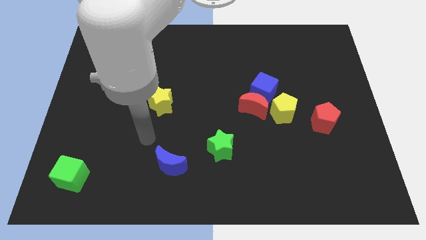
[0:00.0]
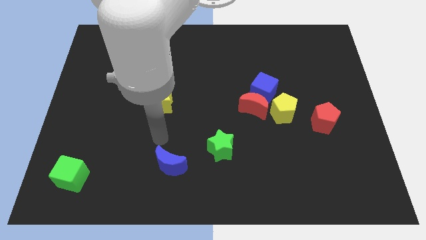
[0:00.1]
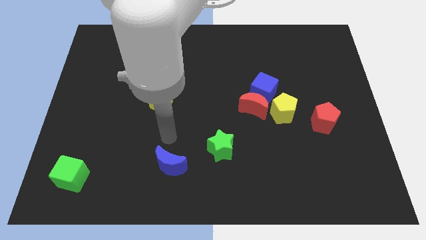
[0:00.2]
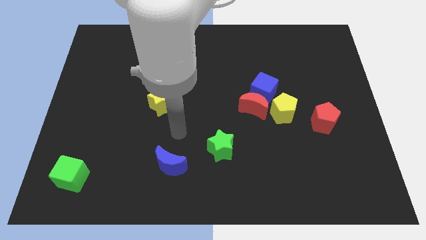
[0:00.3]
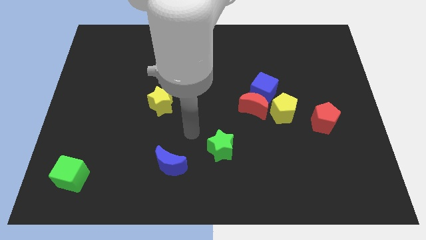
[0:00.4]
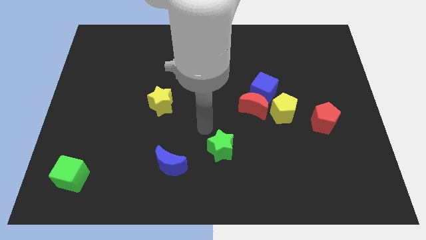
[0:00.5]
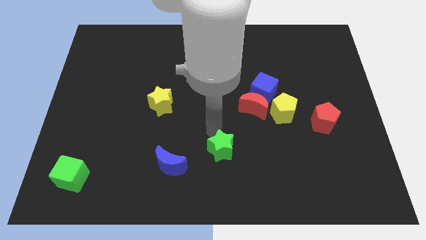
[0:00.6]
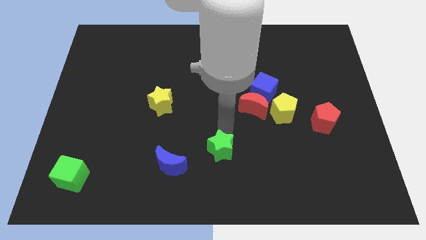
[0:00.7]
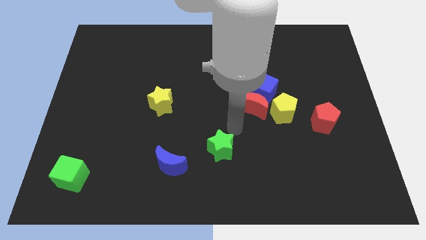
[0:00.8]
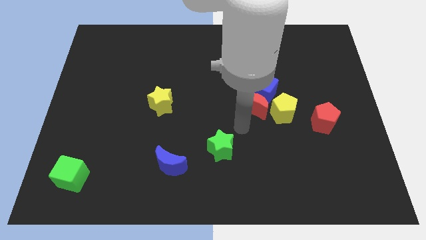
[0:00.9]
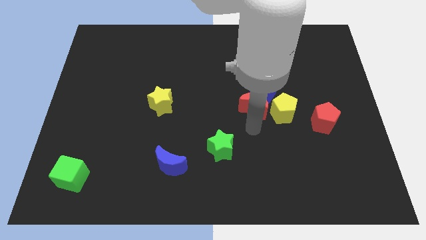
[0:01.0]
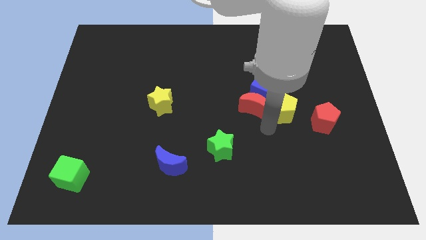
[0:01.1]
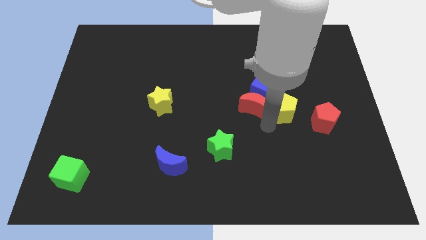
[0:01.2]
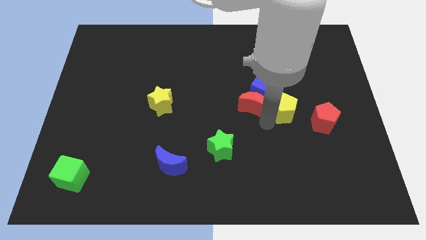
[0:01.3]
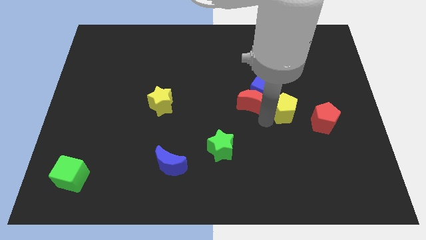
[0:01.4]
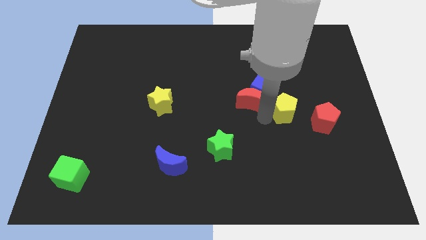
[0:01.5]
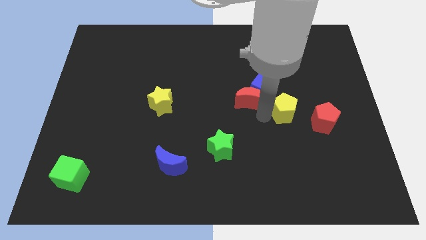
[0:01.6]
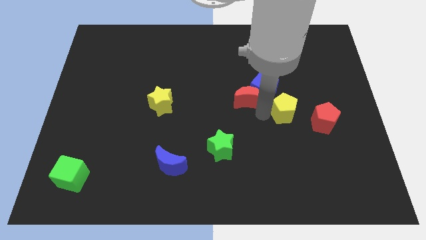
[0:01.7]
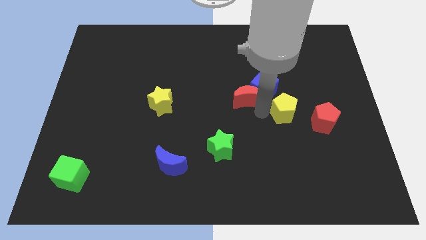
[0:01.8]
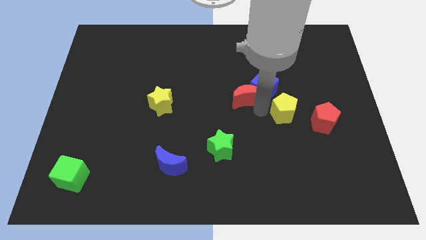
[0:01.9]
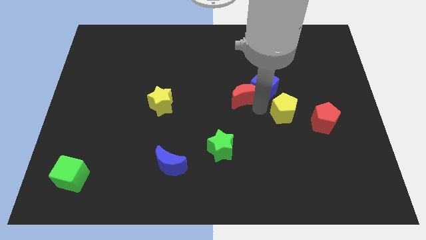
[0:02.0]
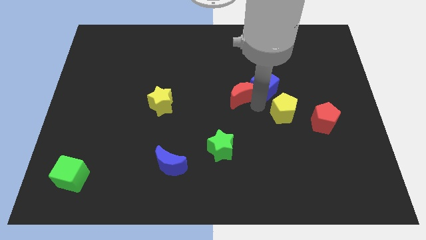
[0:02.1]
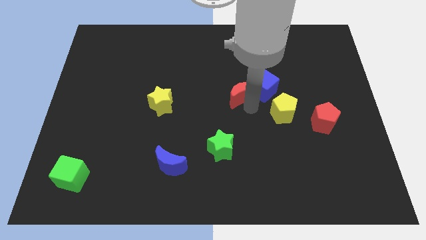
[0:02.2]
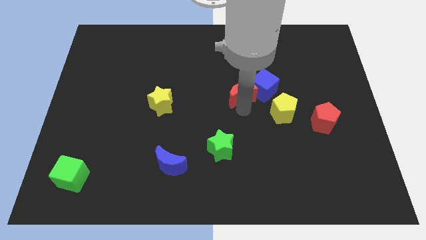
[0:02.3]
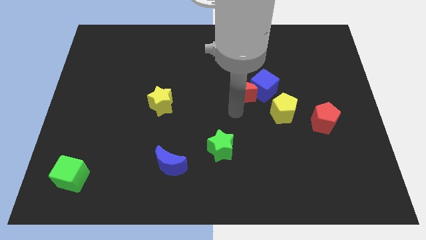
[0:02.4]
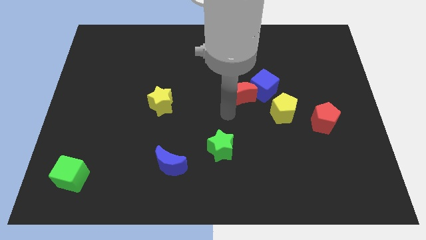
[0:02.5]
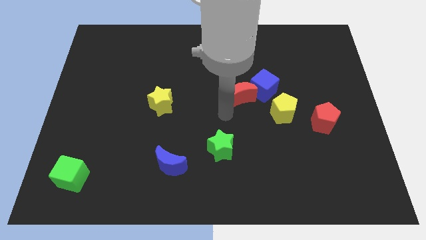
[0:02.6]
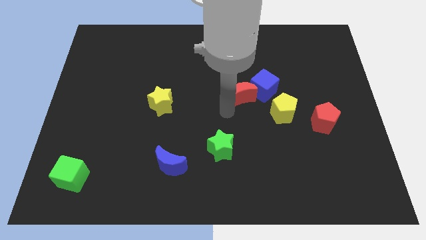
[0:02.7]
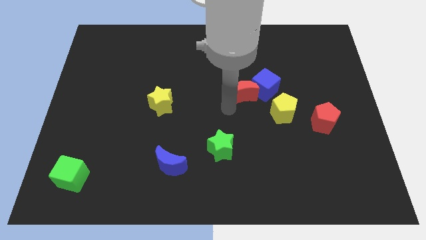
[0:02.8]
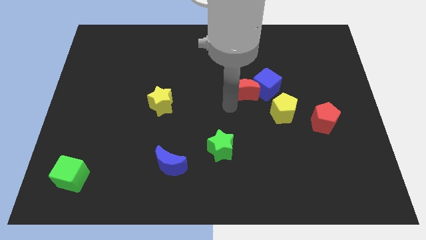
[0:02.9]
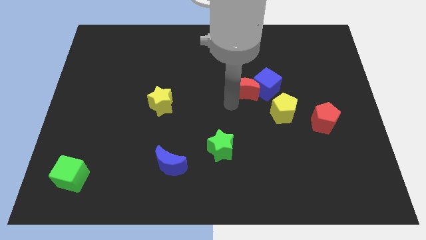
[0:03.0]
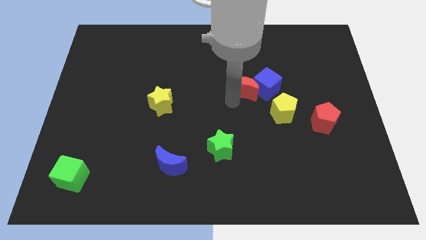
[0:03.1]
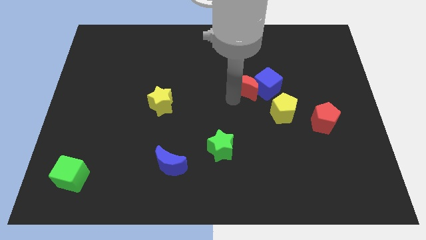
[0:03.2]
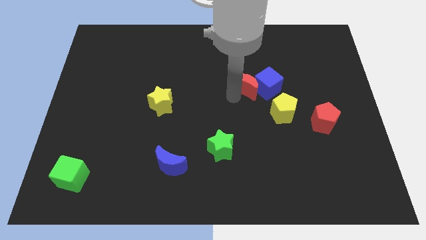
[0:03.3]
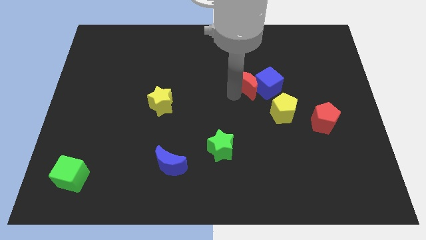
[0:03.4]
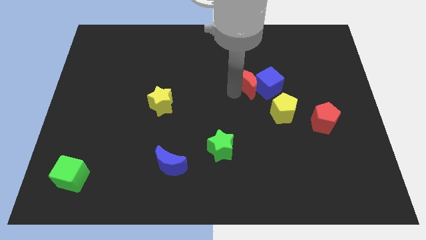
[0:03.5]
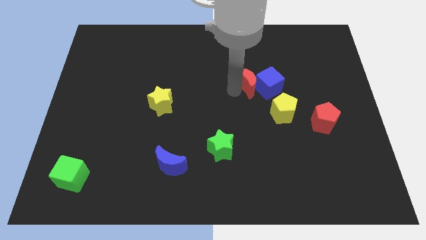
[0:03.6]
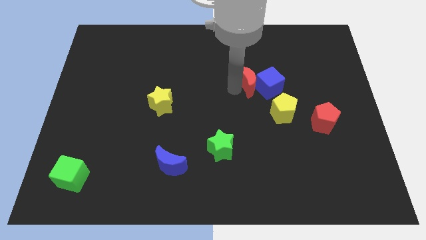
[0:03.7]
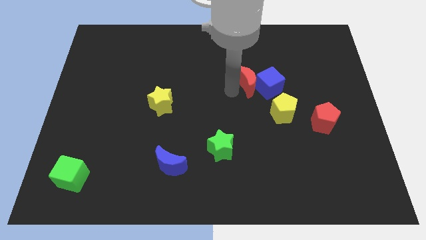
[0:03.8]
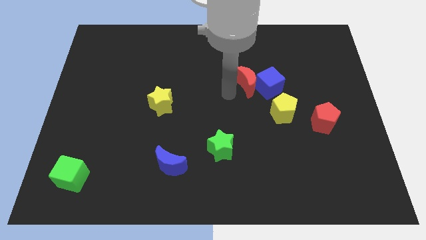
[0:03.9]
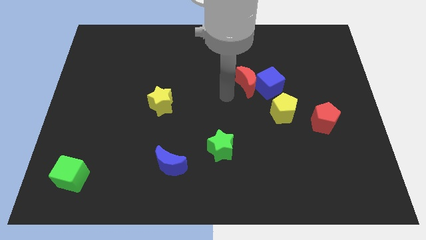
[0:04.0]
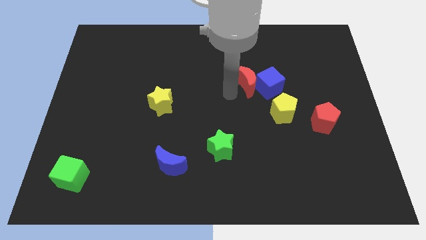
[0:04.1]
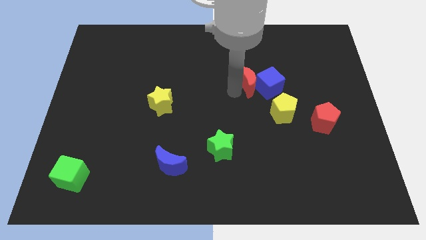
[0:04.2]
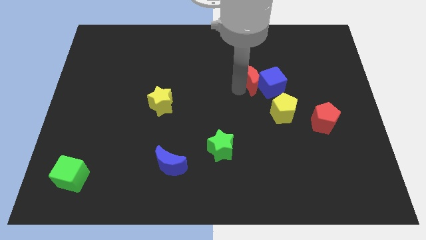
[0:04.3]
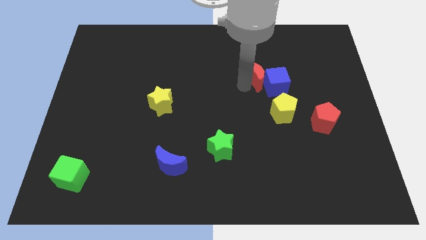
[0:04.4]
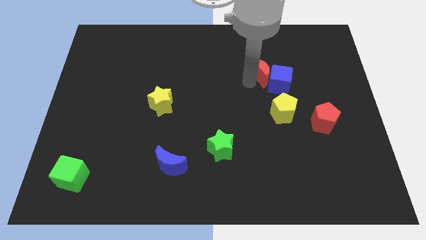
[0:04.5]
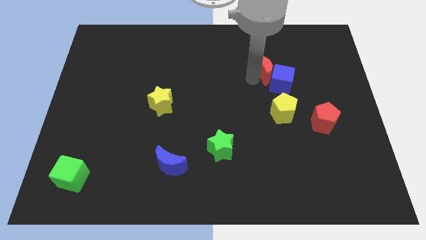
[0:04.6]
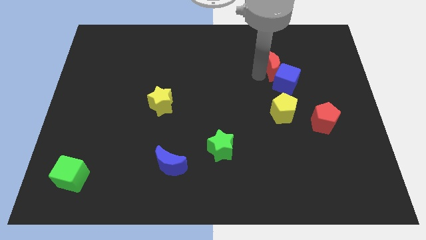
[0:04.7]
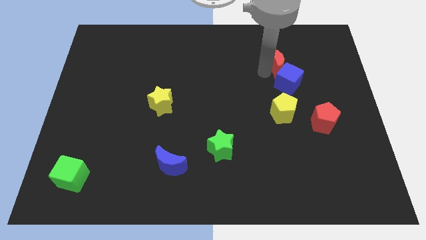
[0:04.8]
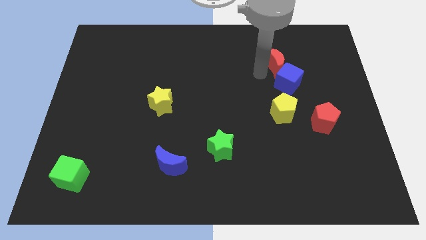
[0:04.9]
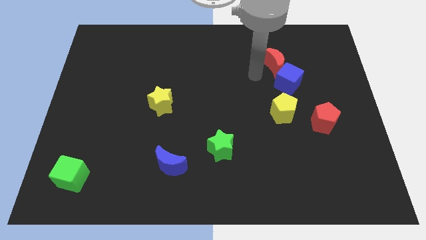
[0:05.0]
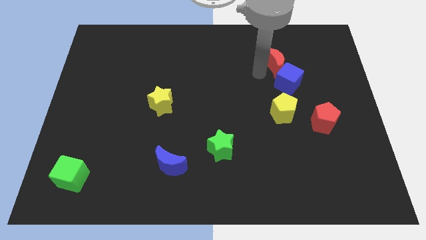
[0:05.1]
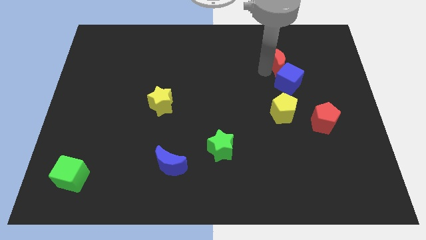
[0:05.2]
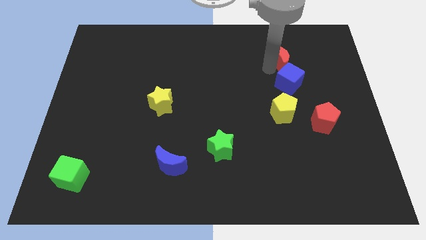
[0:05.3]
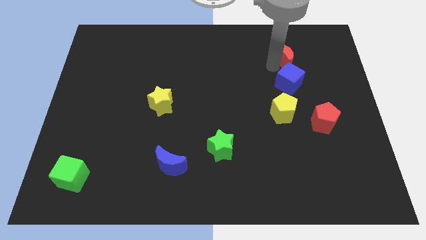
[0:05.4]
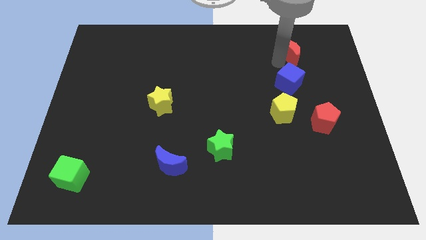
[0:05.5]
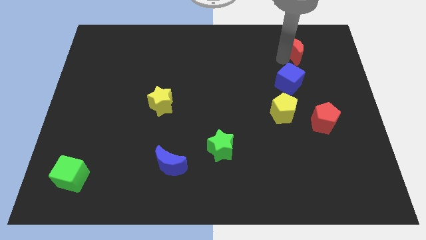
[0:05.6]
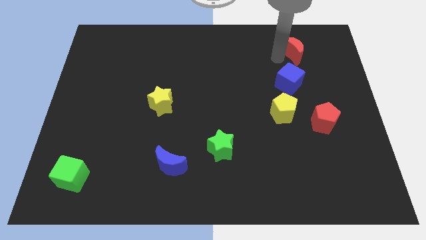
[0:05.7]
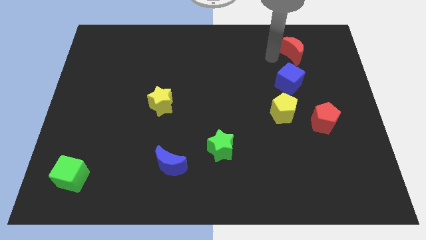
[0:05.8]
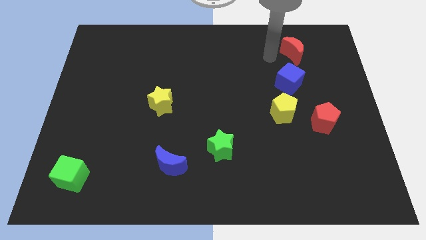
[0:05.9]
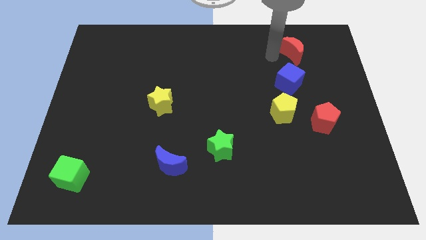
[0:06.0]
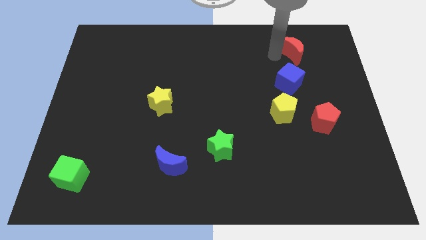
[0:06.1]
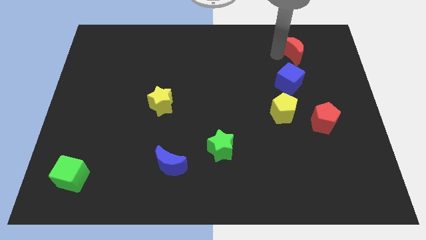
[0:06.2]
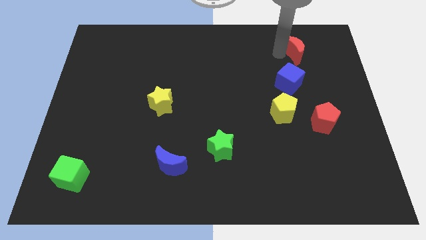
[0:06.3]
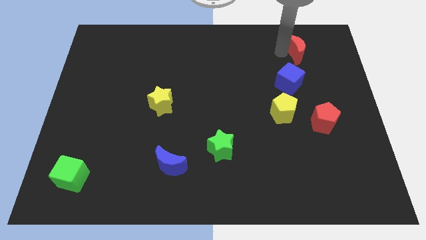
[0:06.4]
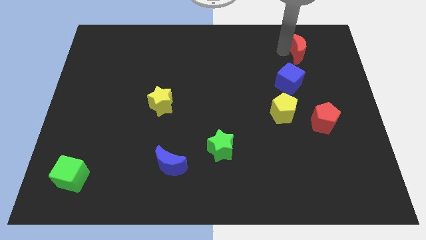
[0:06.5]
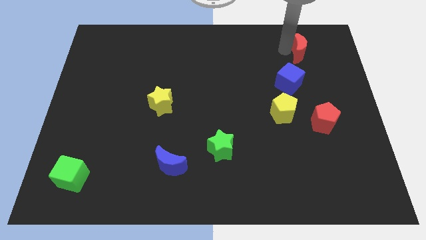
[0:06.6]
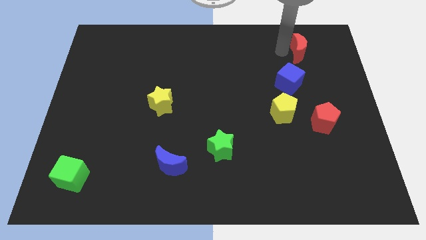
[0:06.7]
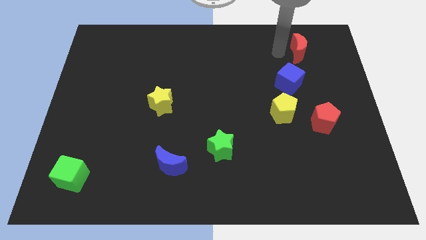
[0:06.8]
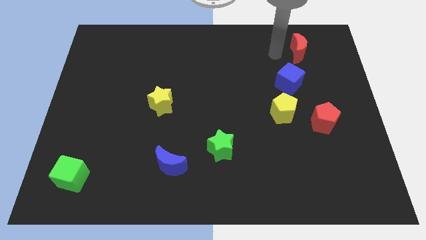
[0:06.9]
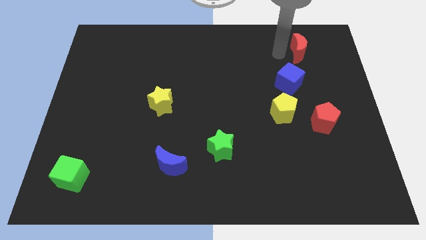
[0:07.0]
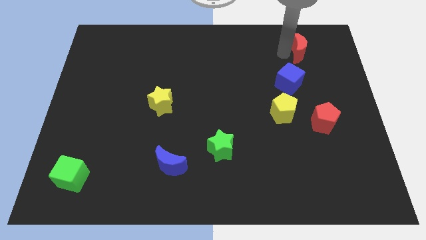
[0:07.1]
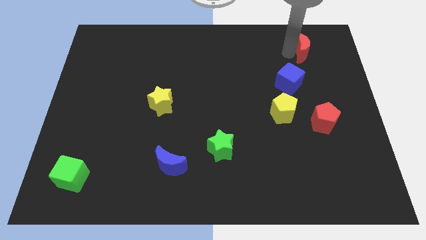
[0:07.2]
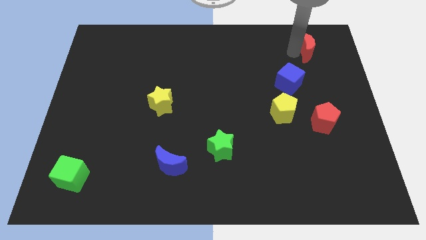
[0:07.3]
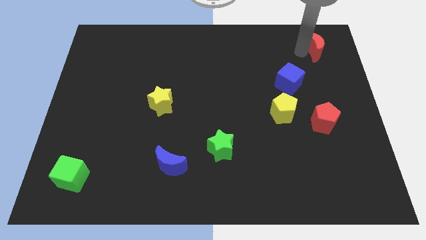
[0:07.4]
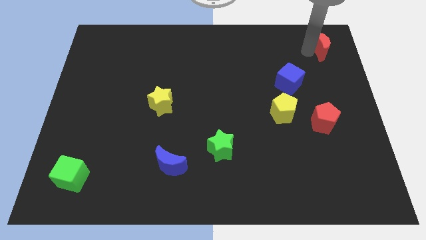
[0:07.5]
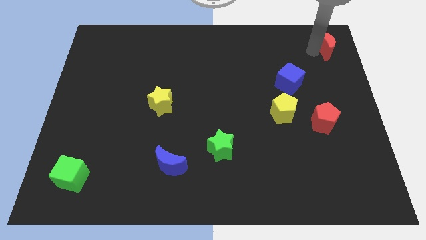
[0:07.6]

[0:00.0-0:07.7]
put the red moon to the upper right corner
